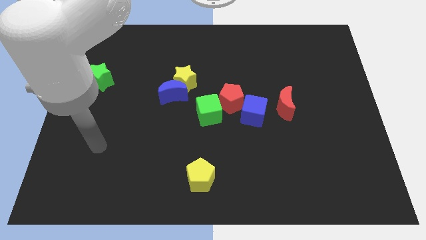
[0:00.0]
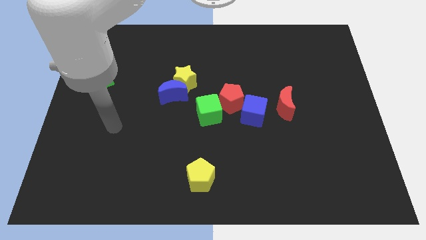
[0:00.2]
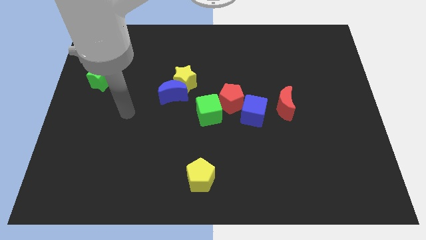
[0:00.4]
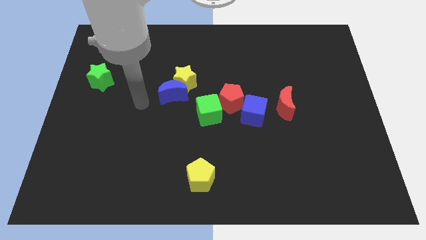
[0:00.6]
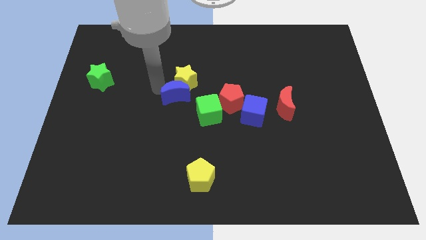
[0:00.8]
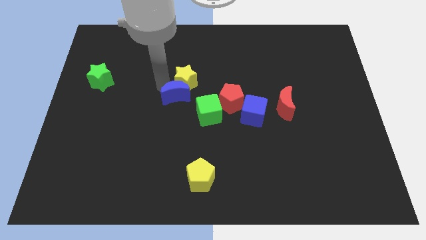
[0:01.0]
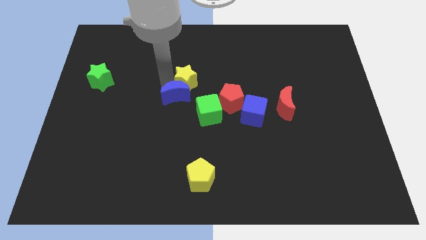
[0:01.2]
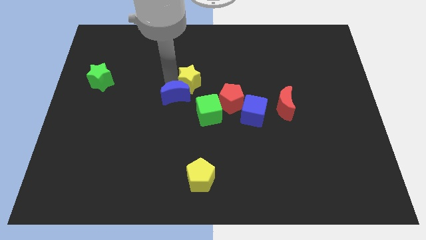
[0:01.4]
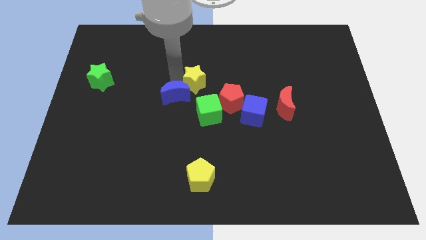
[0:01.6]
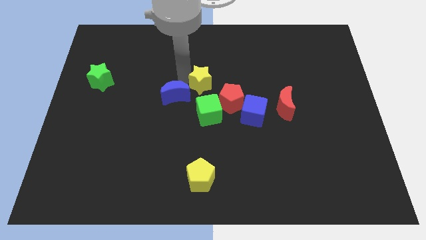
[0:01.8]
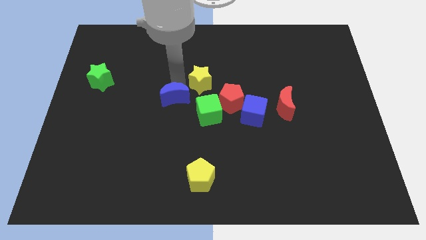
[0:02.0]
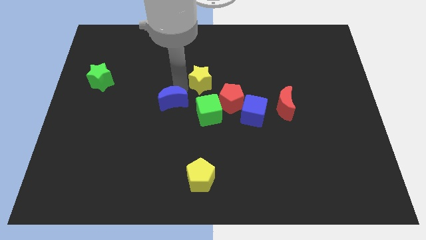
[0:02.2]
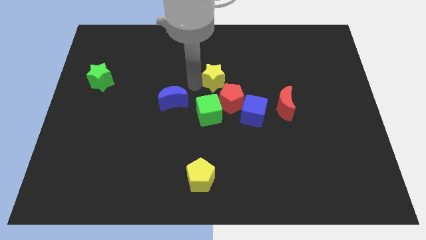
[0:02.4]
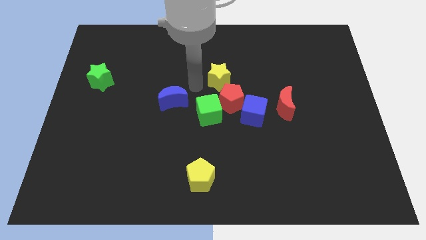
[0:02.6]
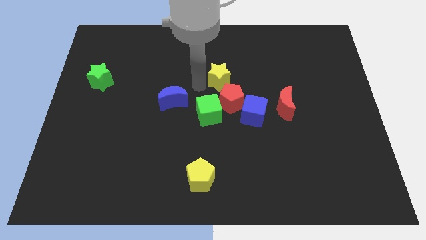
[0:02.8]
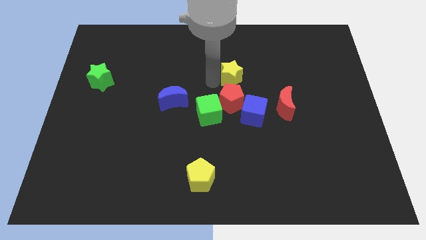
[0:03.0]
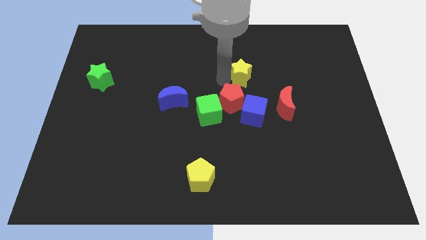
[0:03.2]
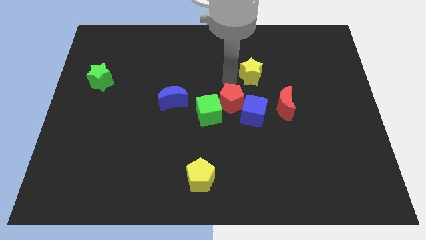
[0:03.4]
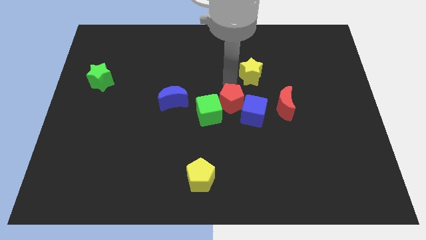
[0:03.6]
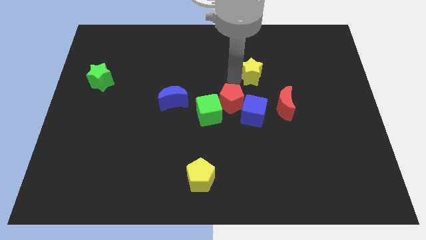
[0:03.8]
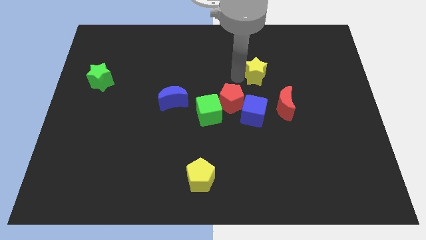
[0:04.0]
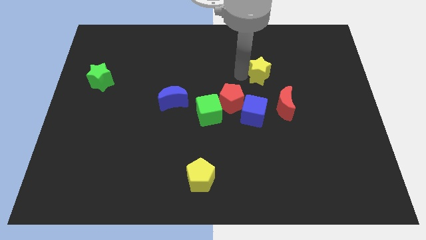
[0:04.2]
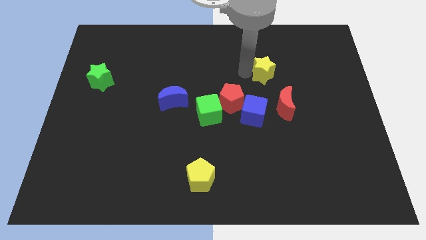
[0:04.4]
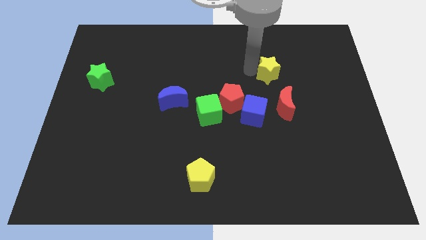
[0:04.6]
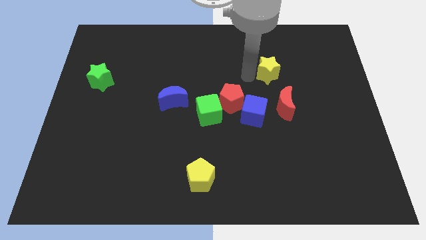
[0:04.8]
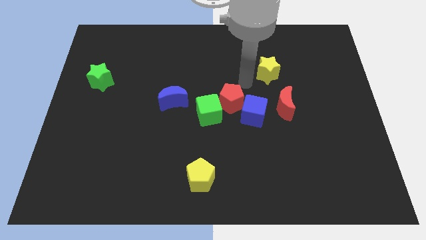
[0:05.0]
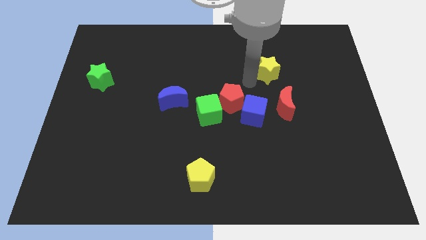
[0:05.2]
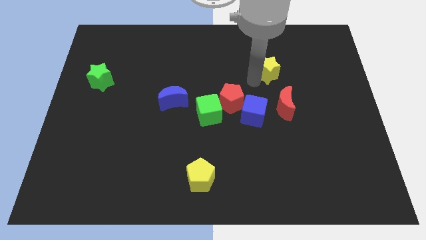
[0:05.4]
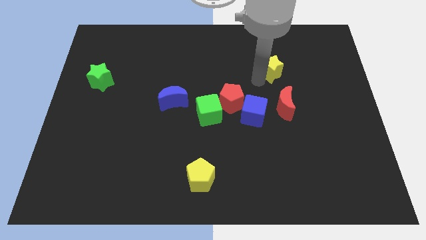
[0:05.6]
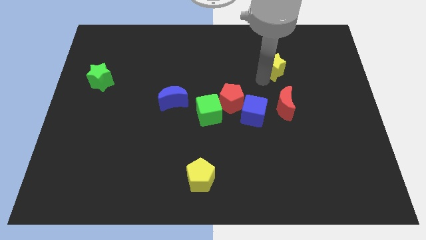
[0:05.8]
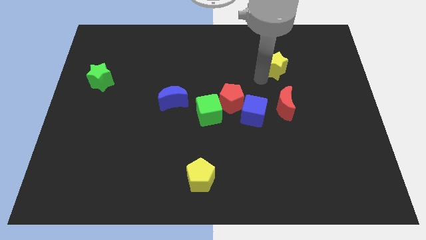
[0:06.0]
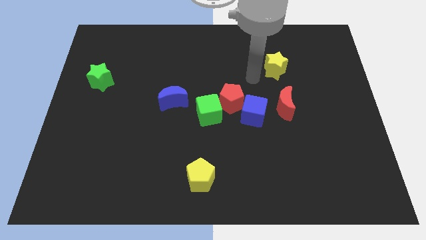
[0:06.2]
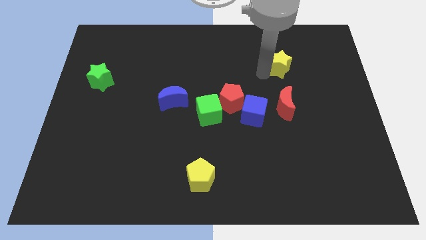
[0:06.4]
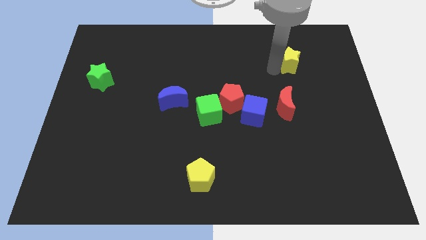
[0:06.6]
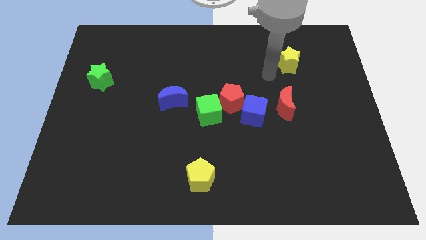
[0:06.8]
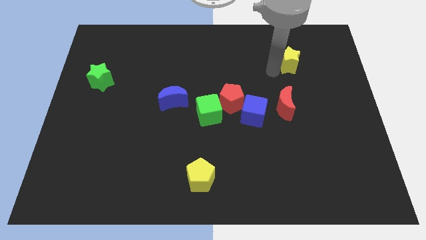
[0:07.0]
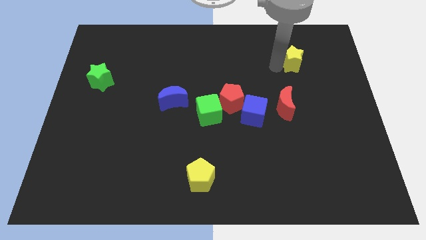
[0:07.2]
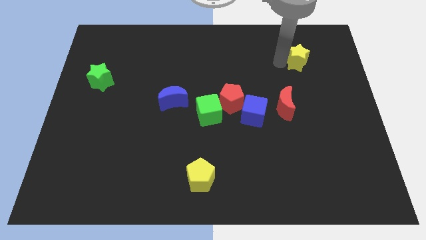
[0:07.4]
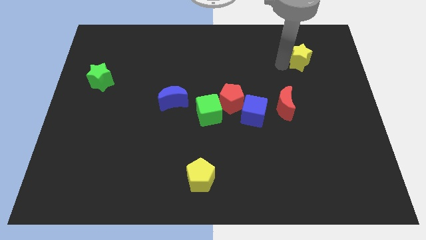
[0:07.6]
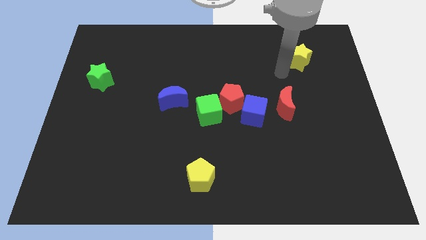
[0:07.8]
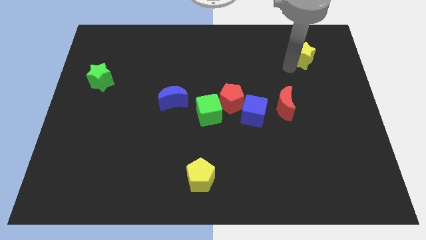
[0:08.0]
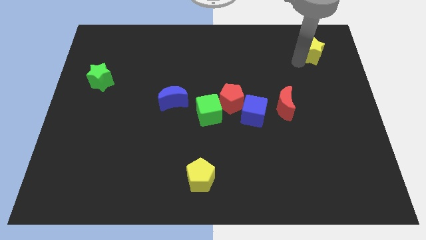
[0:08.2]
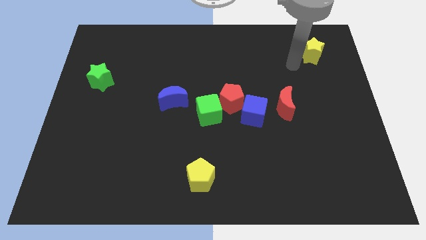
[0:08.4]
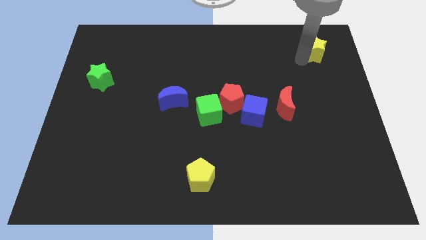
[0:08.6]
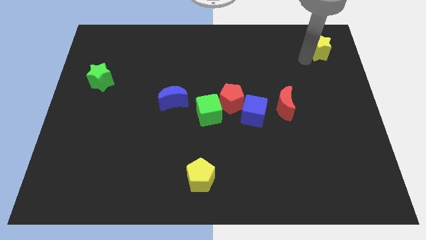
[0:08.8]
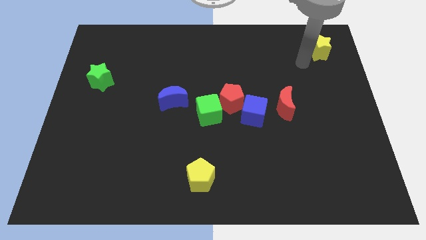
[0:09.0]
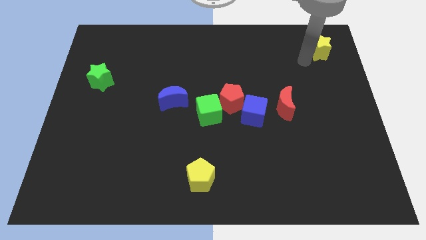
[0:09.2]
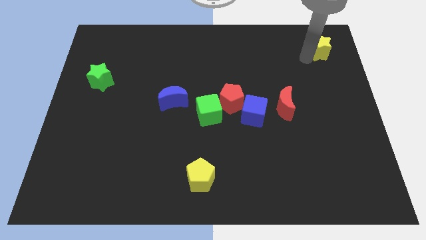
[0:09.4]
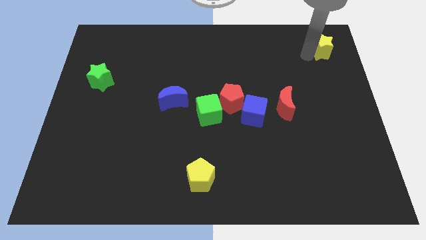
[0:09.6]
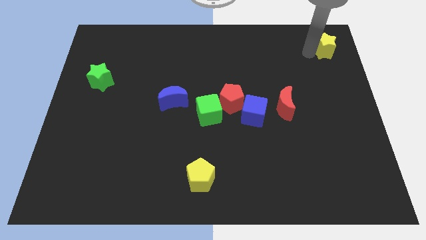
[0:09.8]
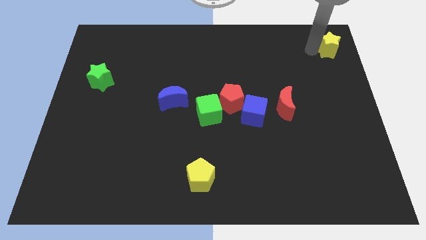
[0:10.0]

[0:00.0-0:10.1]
move the yellow star to the top right of the board

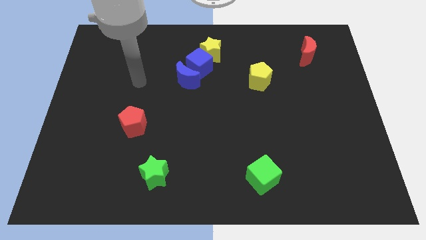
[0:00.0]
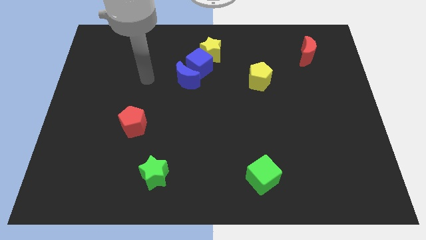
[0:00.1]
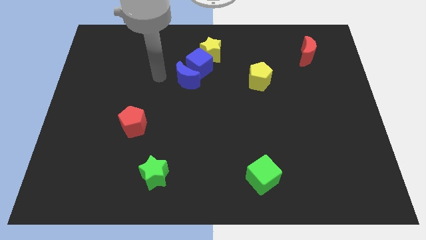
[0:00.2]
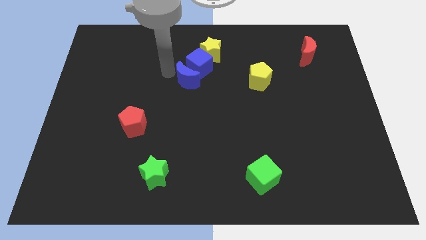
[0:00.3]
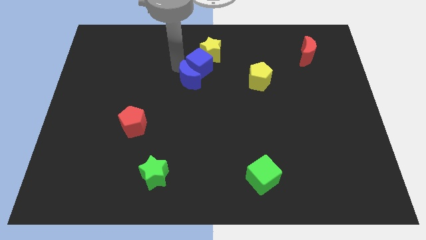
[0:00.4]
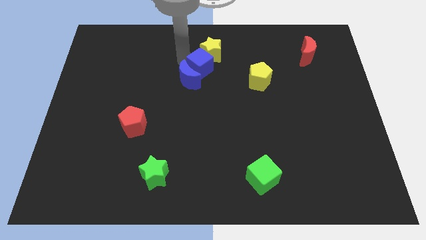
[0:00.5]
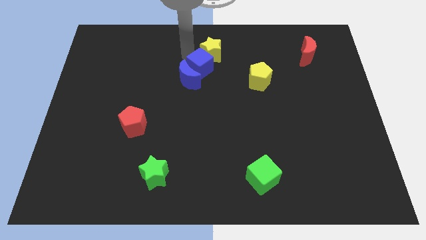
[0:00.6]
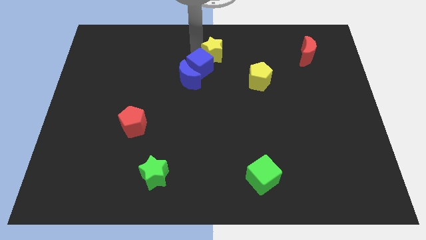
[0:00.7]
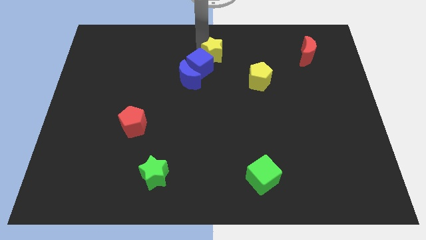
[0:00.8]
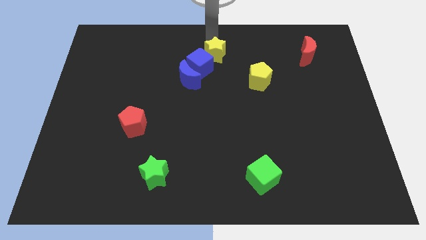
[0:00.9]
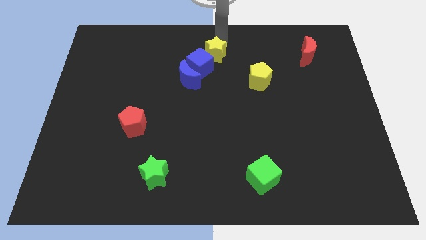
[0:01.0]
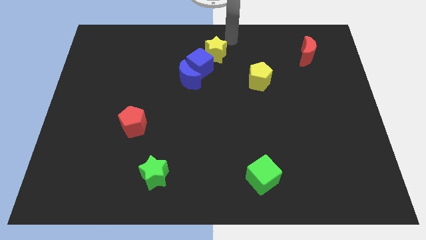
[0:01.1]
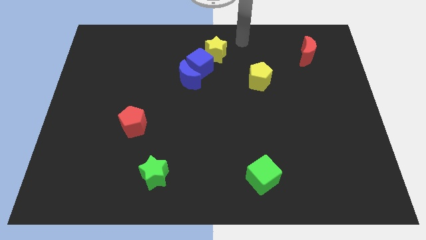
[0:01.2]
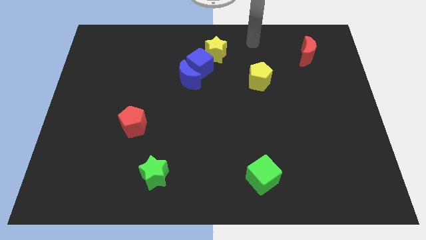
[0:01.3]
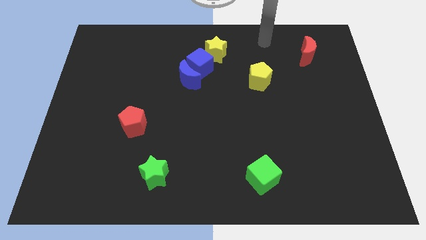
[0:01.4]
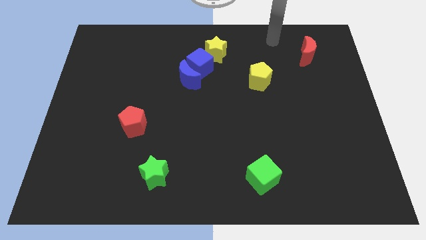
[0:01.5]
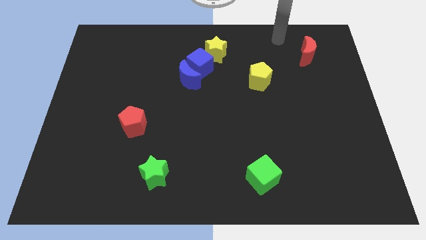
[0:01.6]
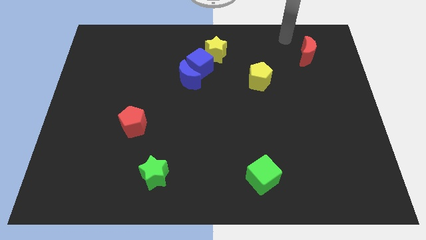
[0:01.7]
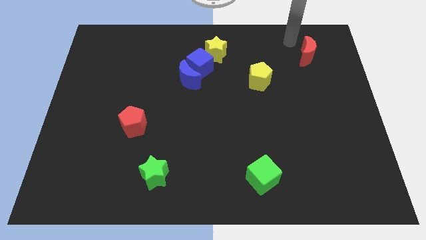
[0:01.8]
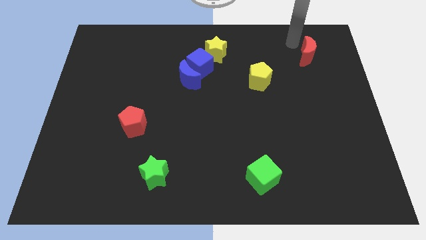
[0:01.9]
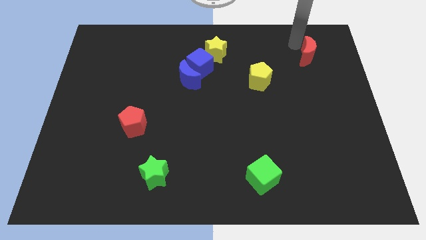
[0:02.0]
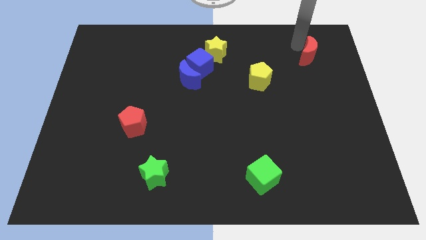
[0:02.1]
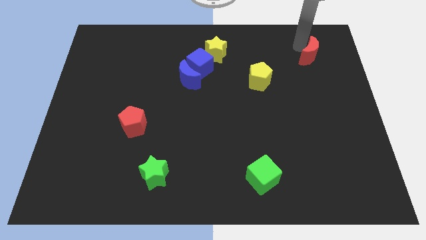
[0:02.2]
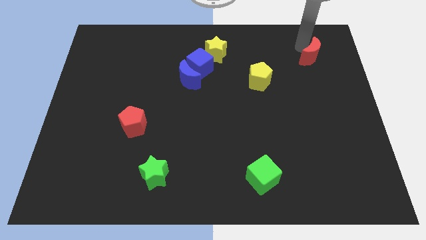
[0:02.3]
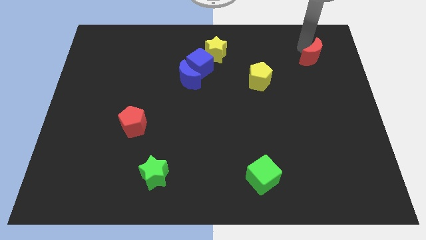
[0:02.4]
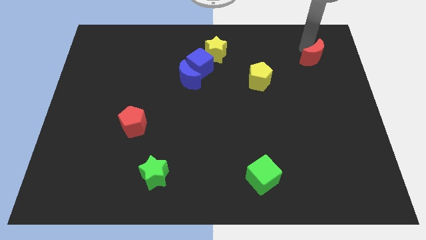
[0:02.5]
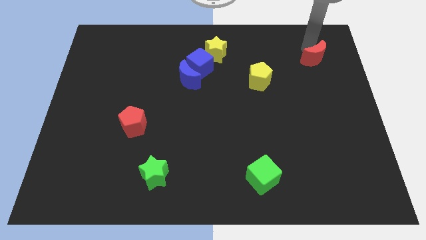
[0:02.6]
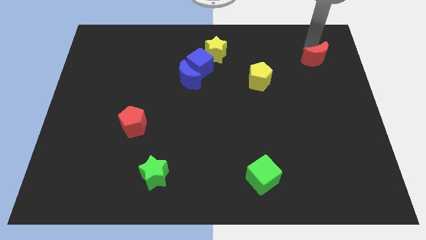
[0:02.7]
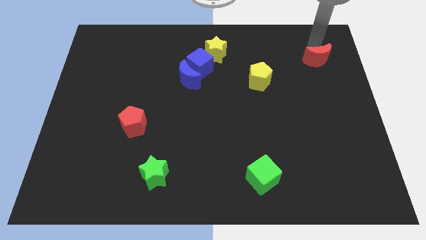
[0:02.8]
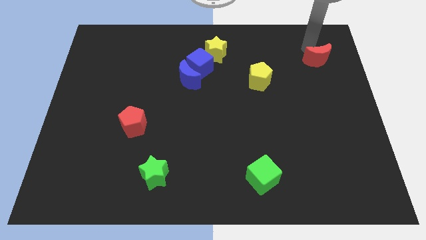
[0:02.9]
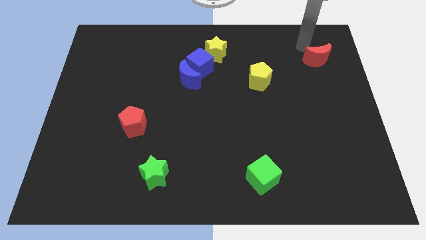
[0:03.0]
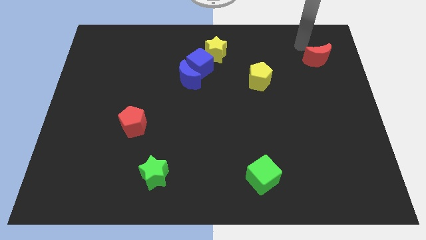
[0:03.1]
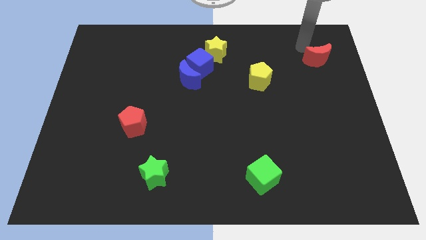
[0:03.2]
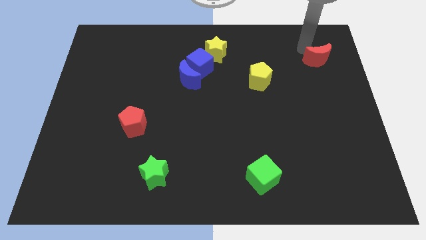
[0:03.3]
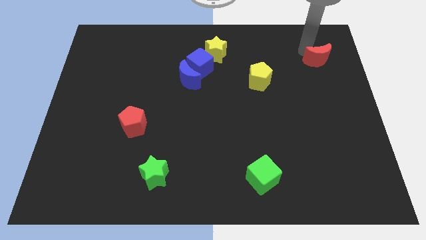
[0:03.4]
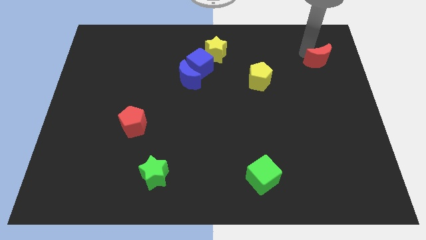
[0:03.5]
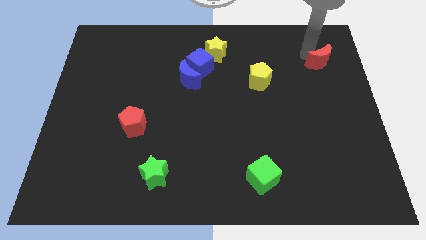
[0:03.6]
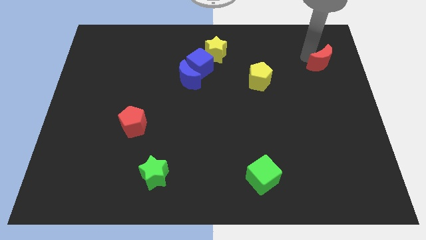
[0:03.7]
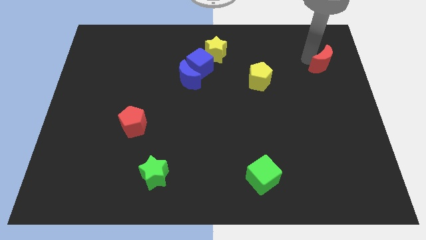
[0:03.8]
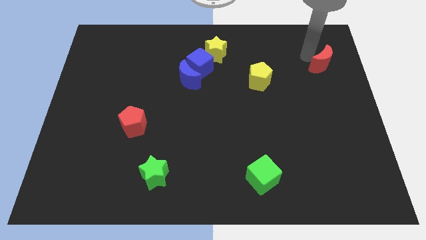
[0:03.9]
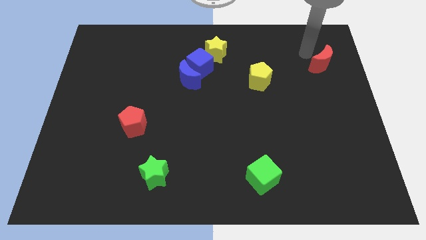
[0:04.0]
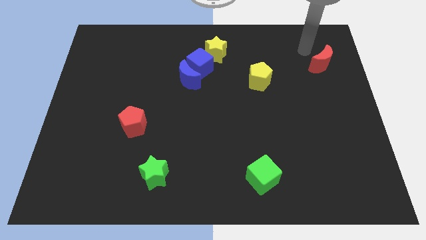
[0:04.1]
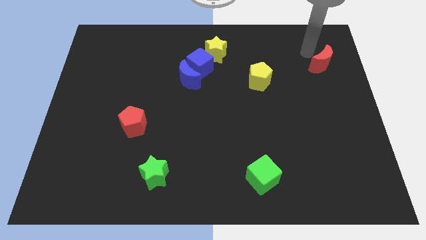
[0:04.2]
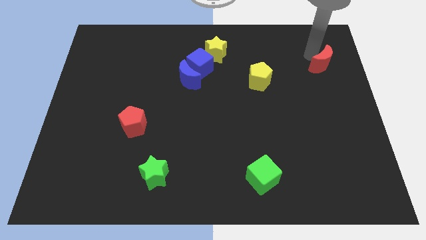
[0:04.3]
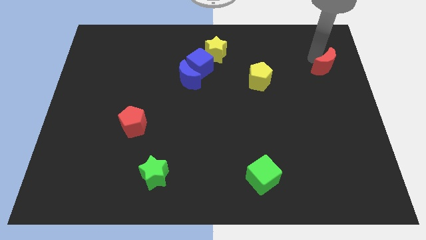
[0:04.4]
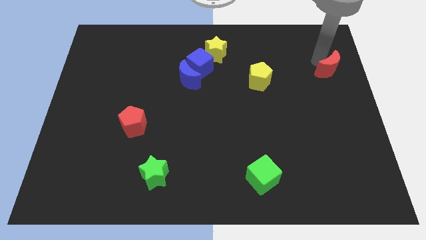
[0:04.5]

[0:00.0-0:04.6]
put the red moon to the center right
